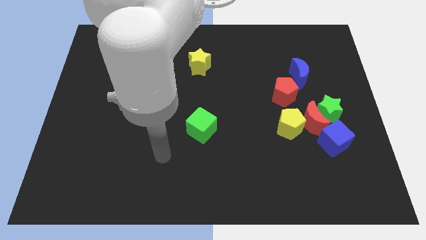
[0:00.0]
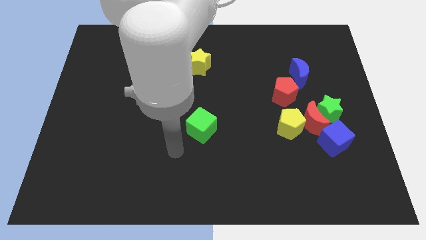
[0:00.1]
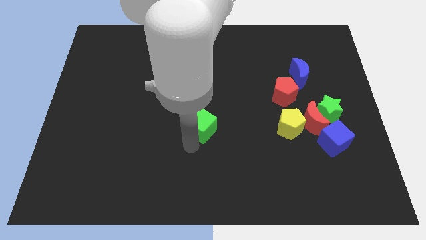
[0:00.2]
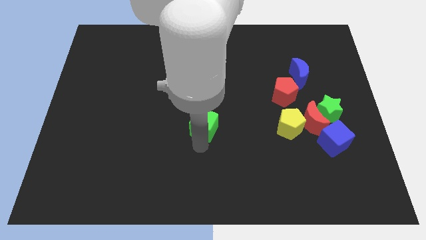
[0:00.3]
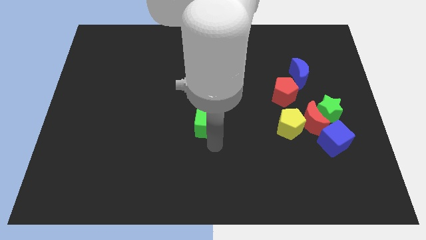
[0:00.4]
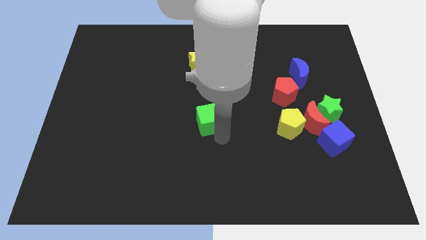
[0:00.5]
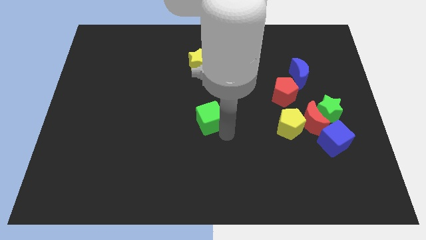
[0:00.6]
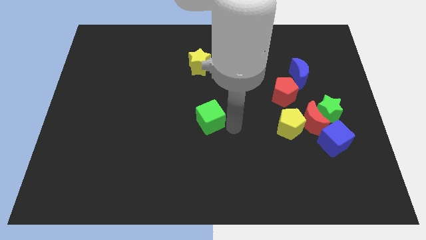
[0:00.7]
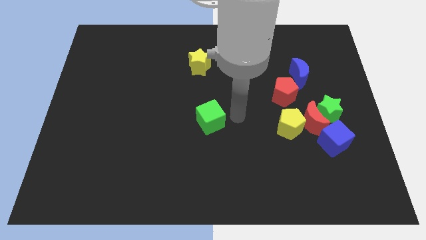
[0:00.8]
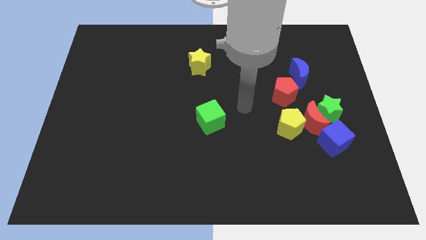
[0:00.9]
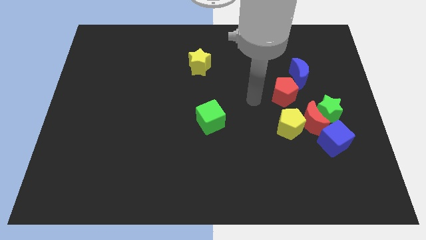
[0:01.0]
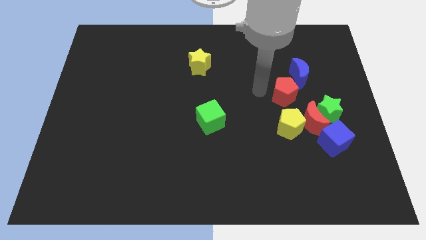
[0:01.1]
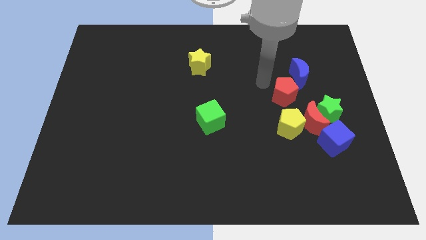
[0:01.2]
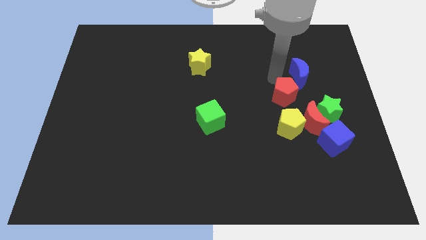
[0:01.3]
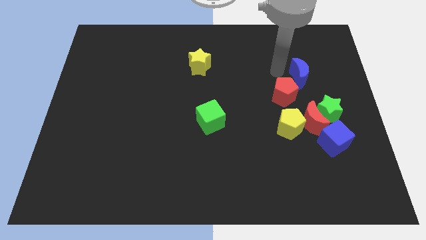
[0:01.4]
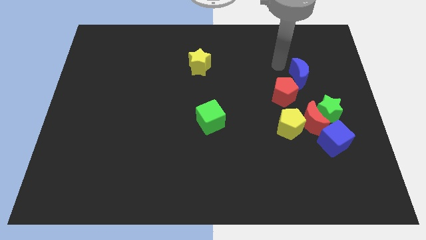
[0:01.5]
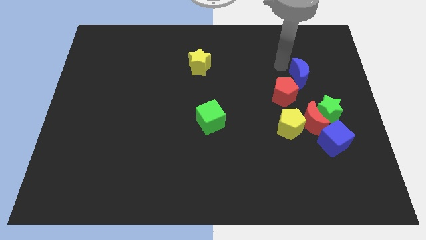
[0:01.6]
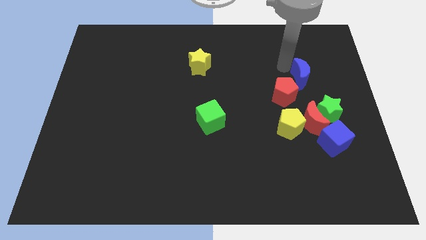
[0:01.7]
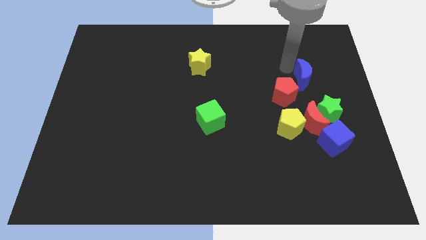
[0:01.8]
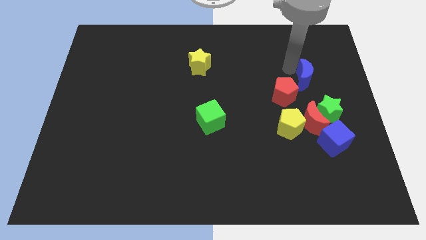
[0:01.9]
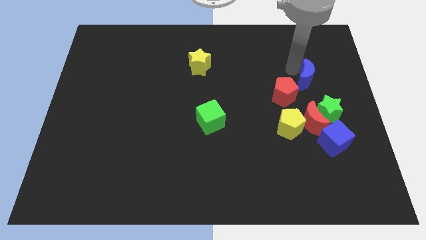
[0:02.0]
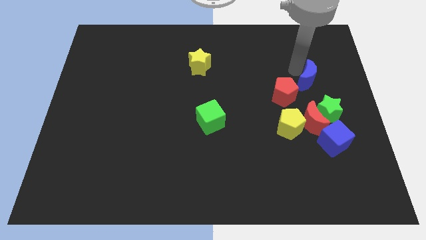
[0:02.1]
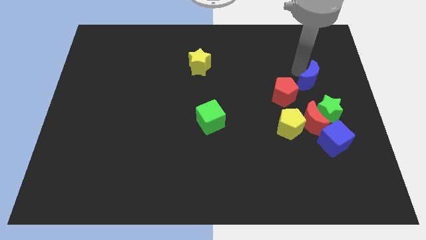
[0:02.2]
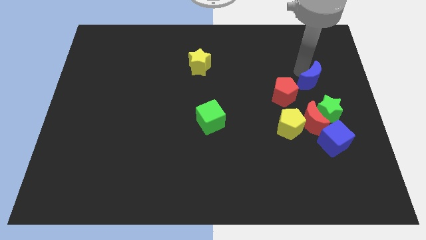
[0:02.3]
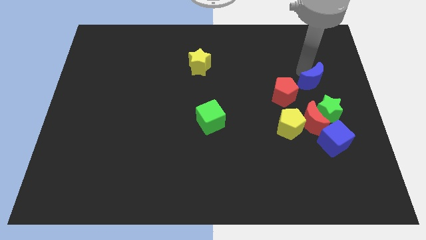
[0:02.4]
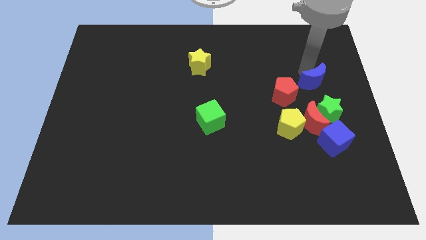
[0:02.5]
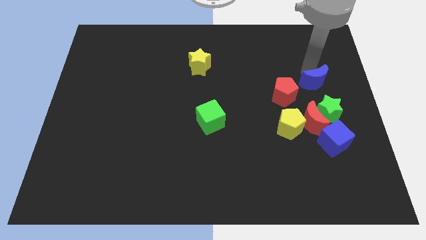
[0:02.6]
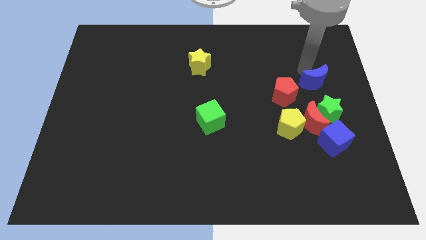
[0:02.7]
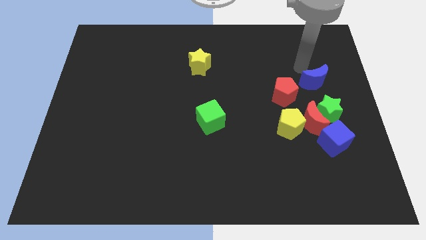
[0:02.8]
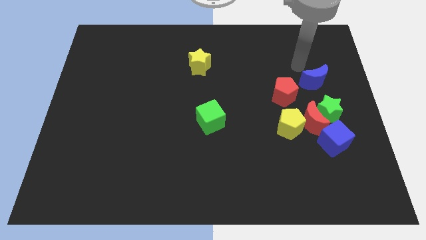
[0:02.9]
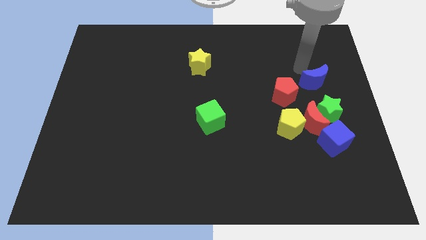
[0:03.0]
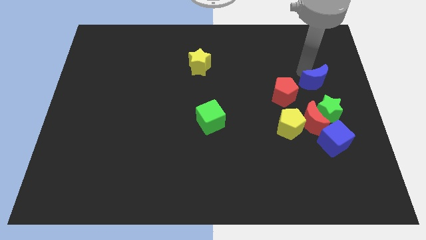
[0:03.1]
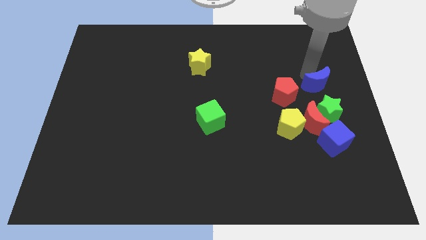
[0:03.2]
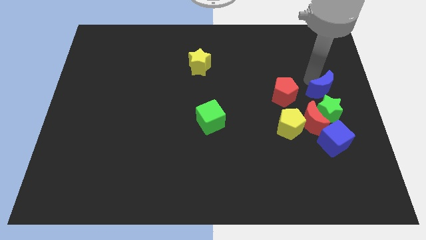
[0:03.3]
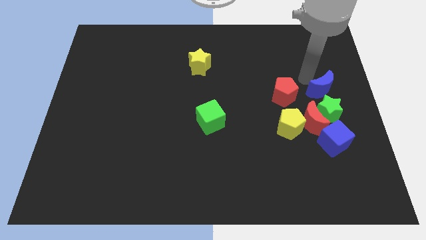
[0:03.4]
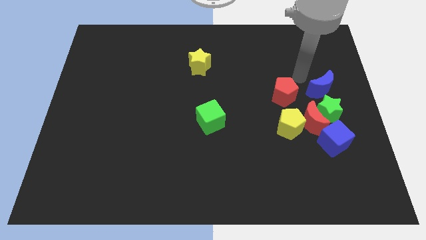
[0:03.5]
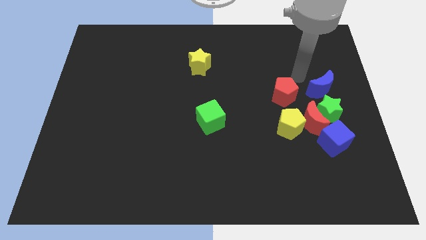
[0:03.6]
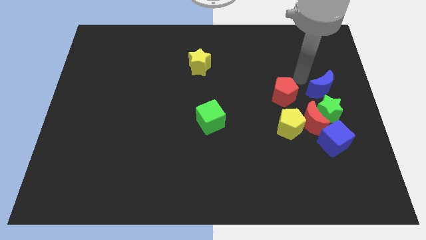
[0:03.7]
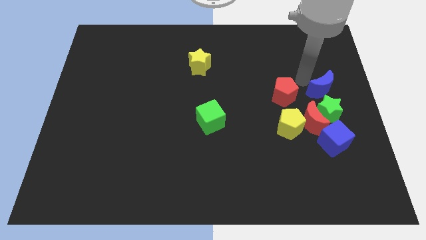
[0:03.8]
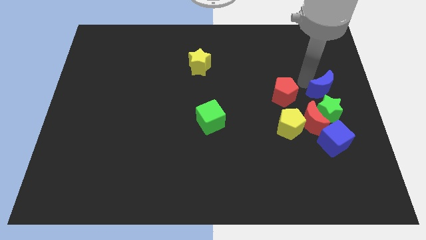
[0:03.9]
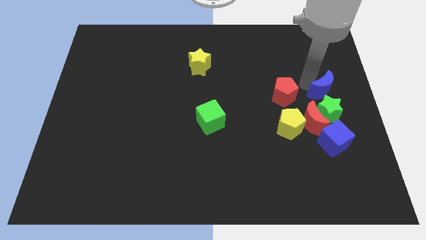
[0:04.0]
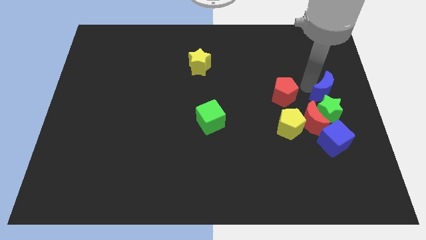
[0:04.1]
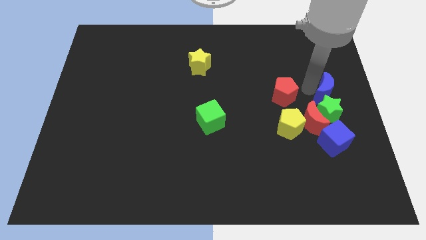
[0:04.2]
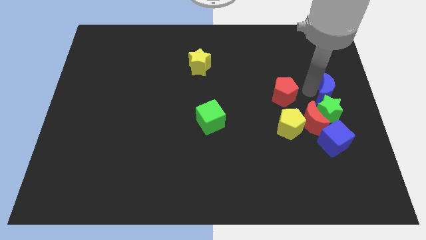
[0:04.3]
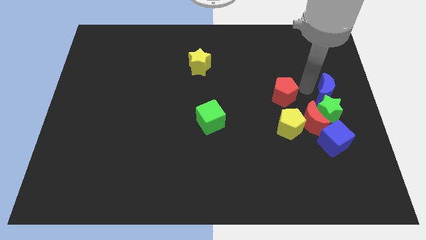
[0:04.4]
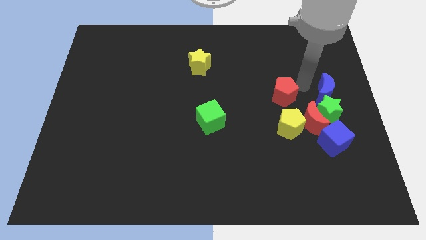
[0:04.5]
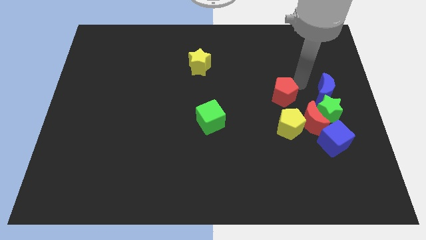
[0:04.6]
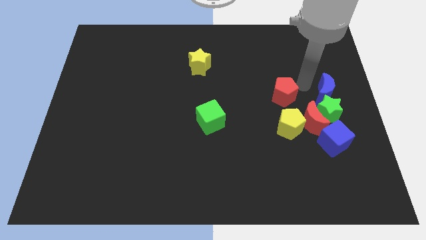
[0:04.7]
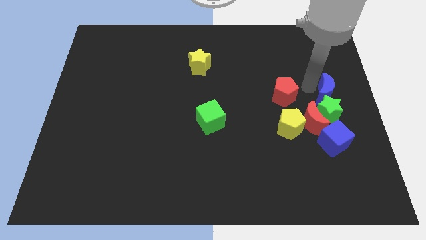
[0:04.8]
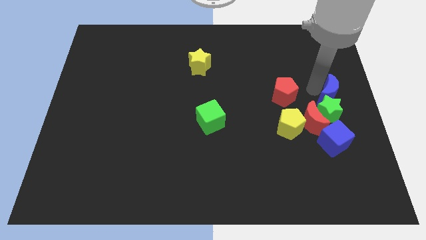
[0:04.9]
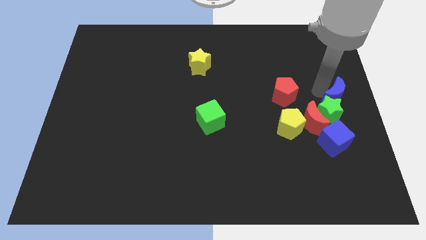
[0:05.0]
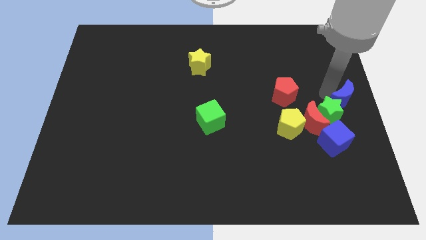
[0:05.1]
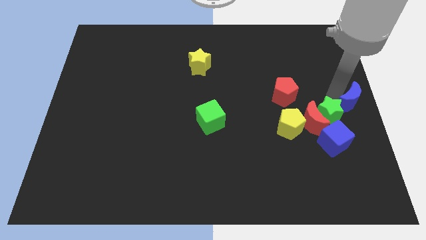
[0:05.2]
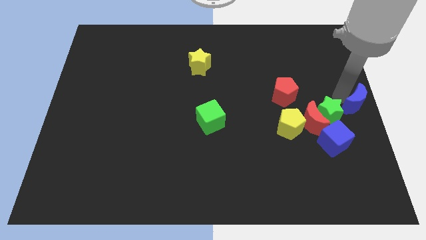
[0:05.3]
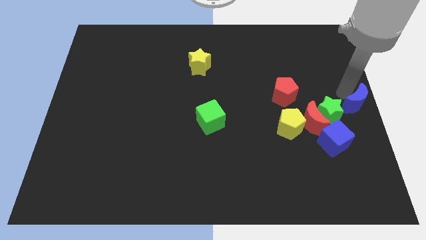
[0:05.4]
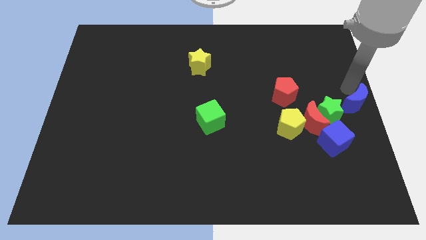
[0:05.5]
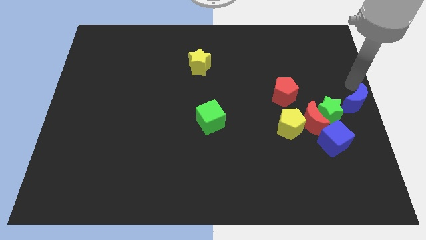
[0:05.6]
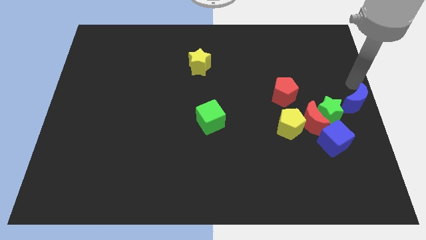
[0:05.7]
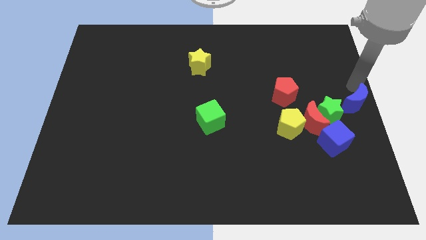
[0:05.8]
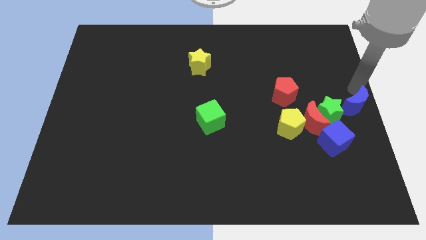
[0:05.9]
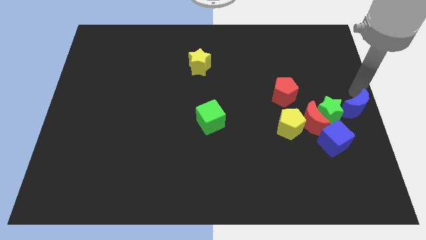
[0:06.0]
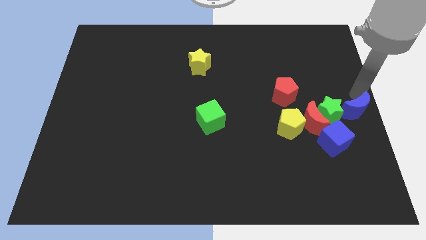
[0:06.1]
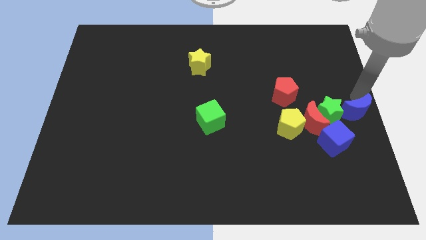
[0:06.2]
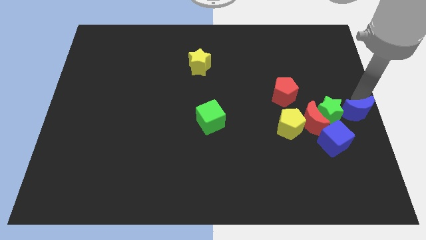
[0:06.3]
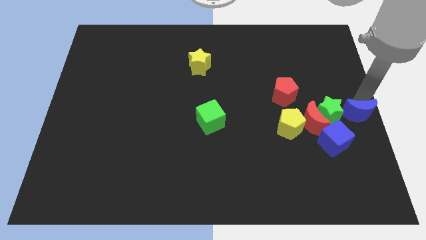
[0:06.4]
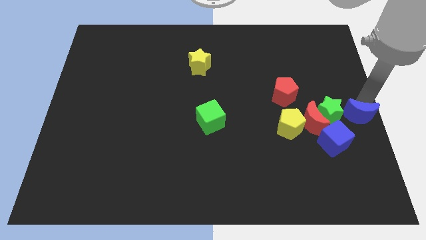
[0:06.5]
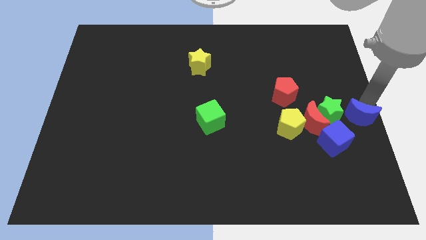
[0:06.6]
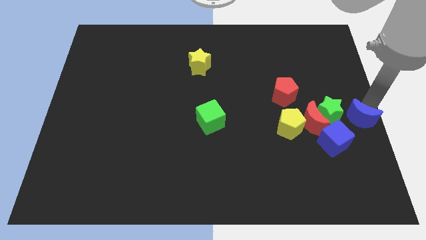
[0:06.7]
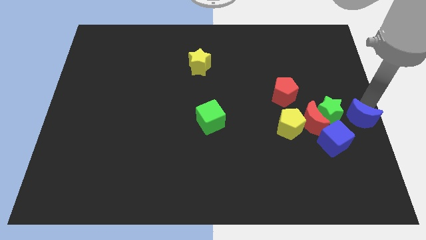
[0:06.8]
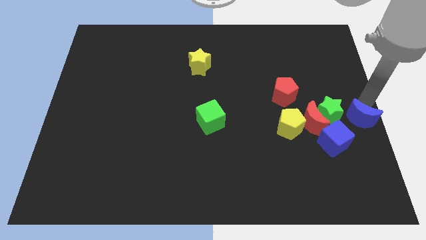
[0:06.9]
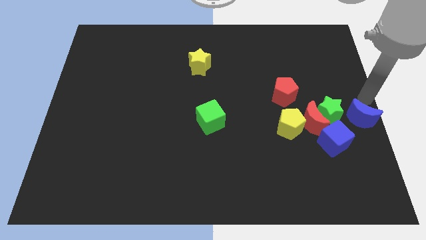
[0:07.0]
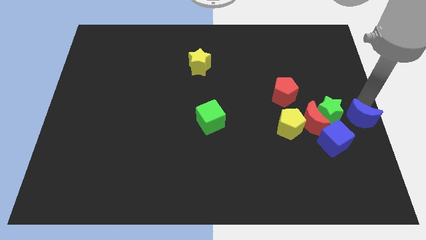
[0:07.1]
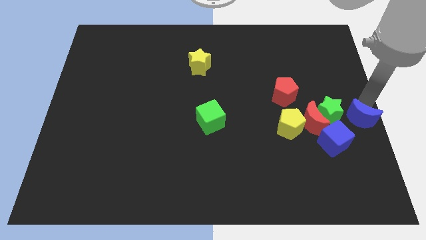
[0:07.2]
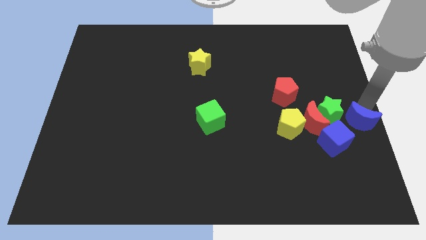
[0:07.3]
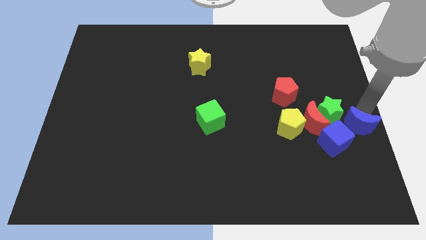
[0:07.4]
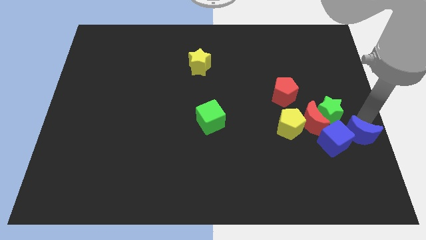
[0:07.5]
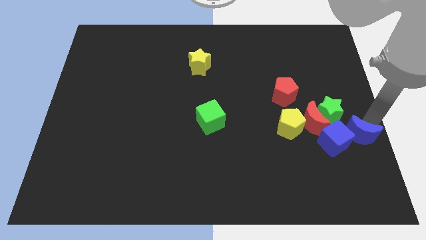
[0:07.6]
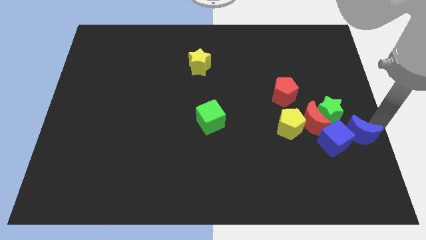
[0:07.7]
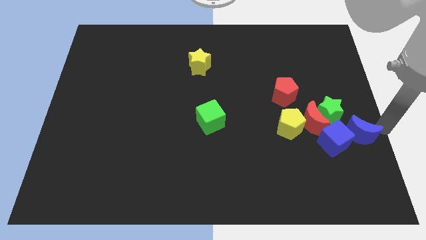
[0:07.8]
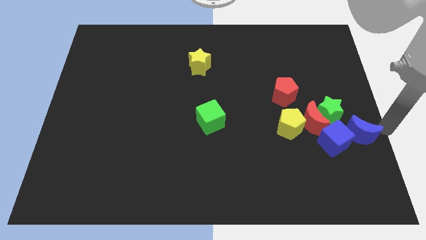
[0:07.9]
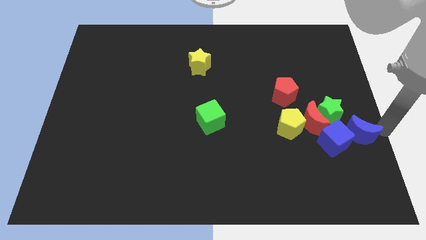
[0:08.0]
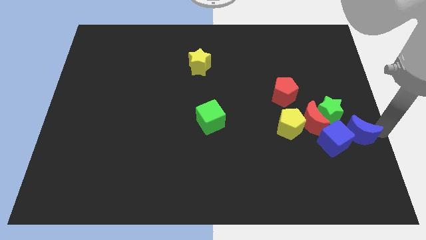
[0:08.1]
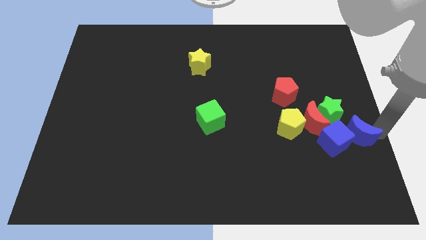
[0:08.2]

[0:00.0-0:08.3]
slide the blue moon to the blue cube
